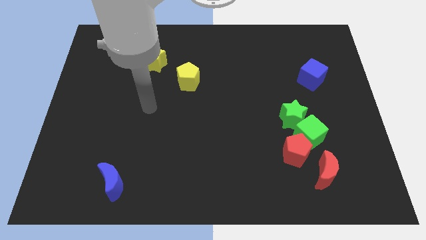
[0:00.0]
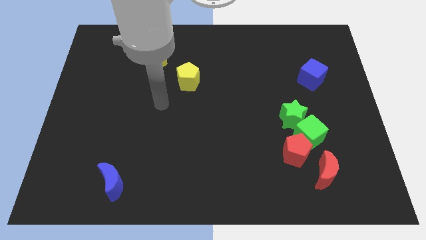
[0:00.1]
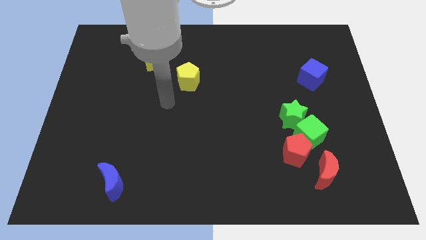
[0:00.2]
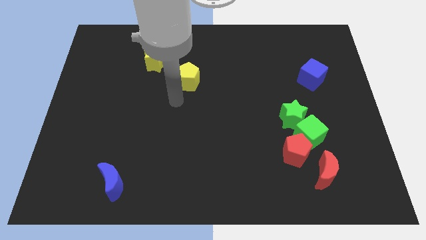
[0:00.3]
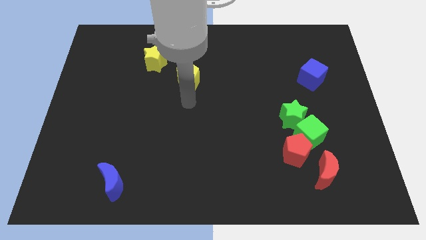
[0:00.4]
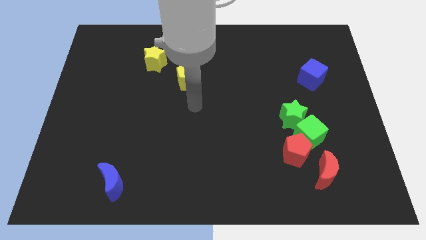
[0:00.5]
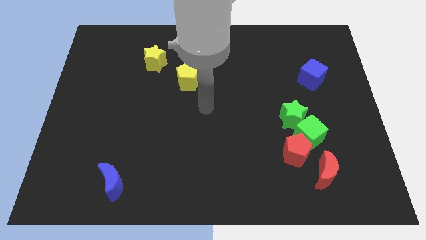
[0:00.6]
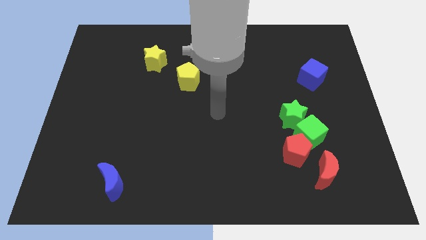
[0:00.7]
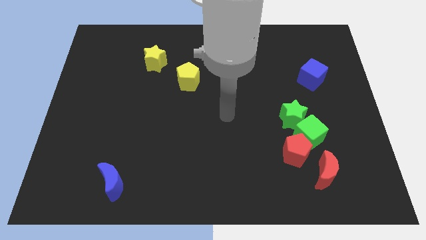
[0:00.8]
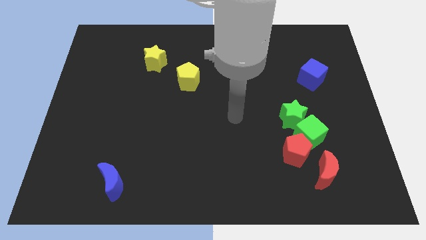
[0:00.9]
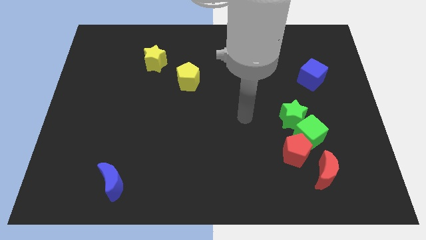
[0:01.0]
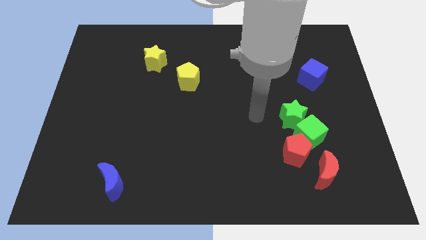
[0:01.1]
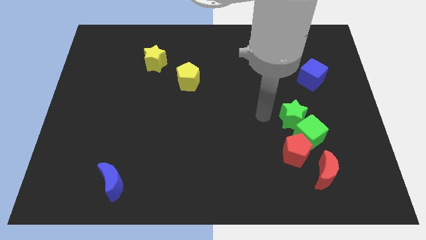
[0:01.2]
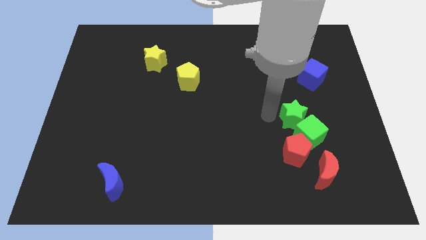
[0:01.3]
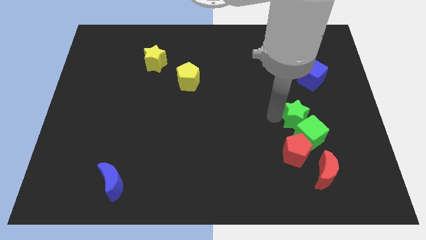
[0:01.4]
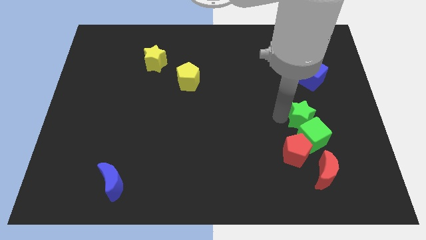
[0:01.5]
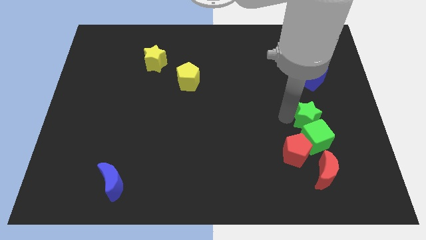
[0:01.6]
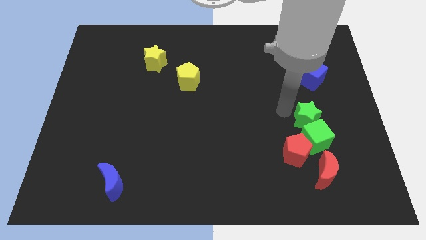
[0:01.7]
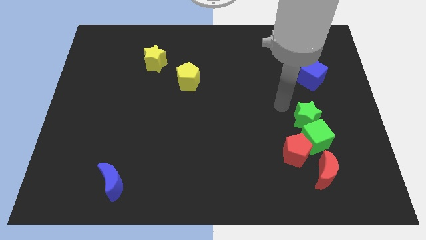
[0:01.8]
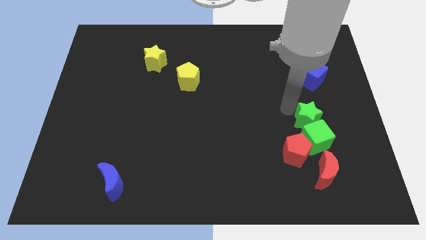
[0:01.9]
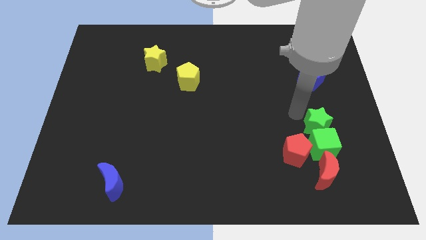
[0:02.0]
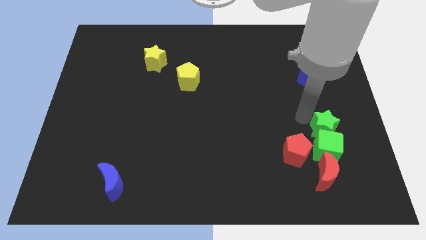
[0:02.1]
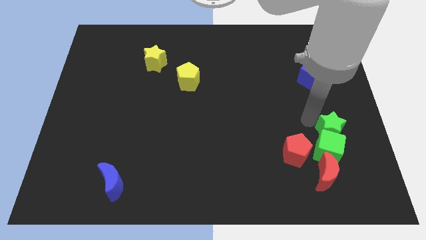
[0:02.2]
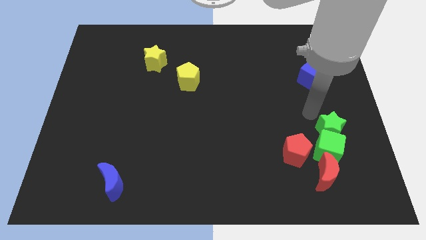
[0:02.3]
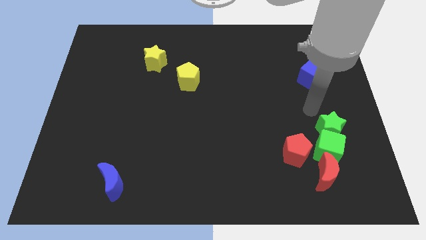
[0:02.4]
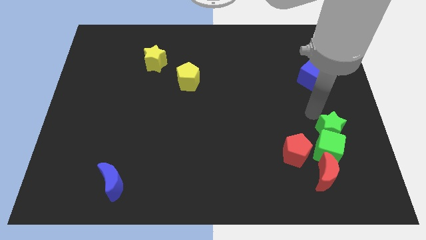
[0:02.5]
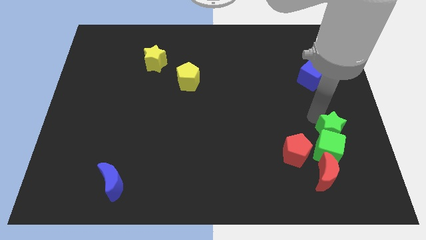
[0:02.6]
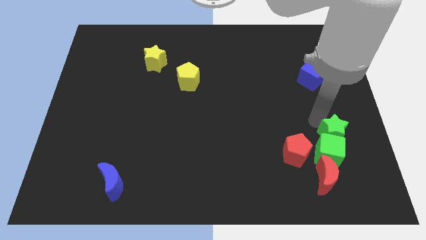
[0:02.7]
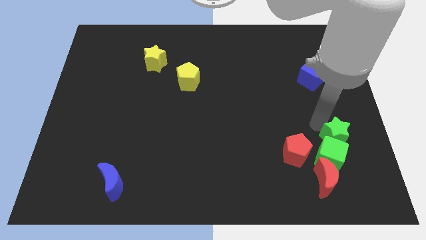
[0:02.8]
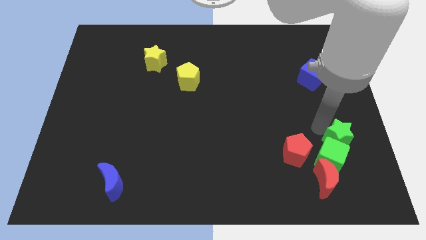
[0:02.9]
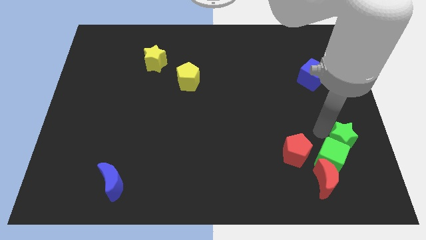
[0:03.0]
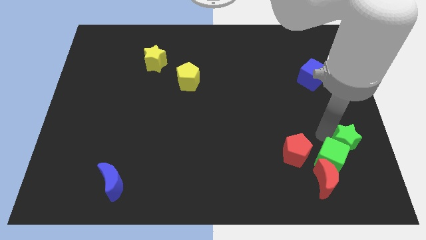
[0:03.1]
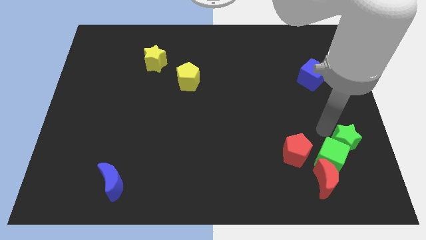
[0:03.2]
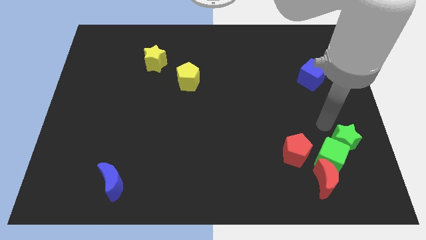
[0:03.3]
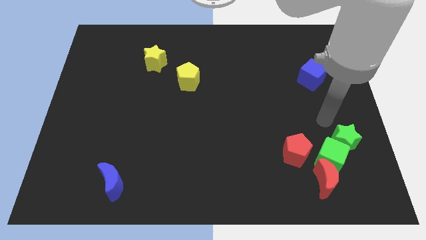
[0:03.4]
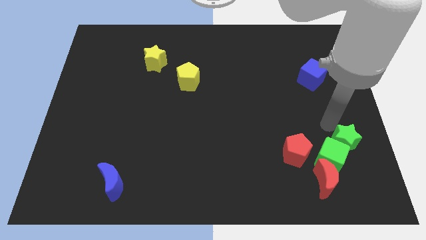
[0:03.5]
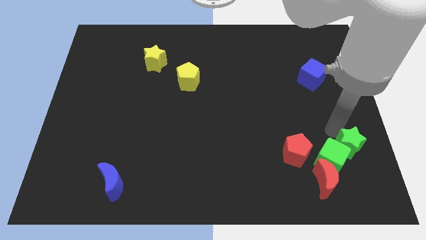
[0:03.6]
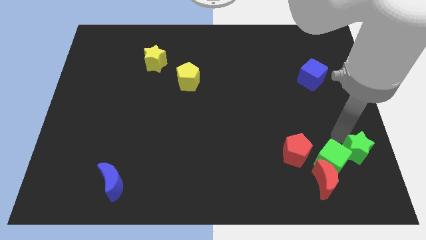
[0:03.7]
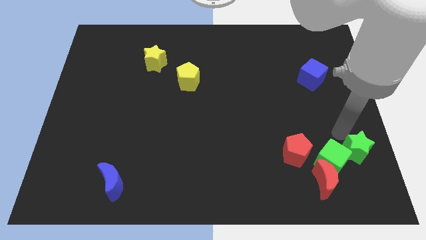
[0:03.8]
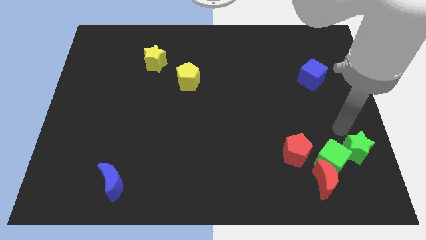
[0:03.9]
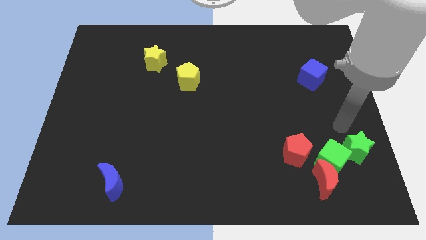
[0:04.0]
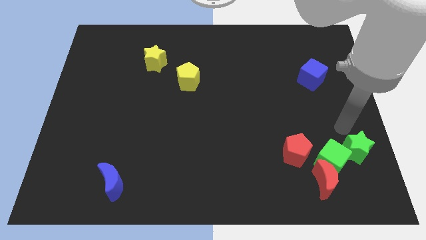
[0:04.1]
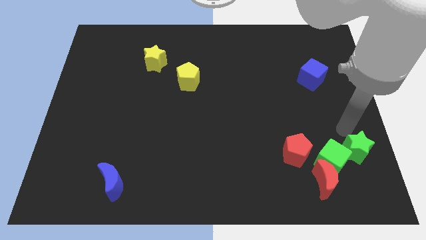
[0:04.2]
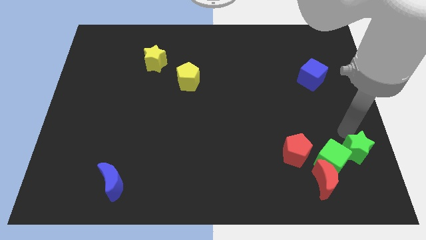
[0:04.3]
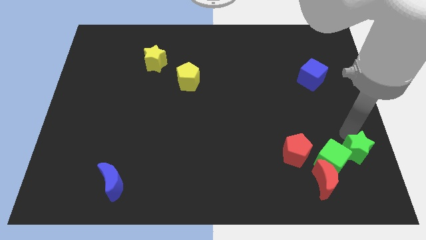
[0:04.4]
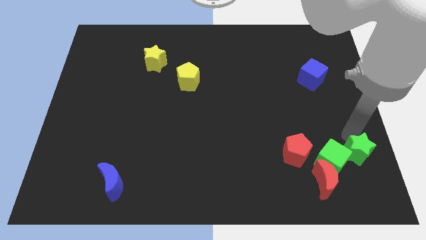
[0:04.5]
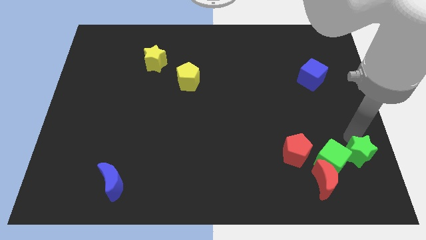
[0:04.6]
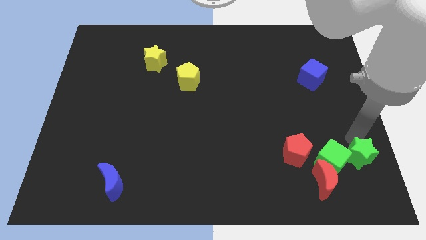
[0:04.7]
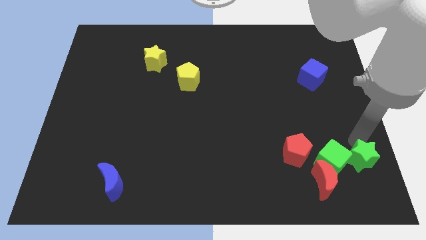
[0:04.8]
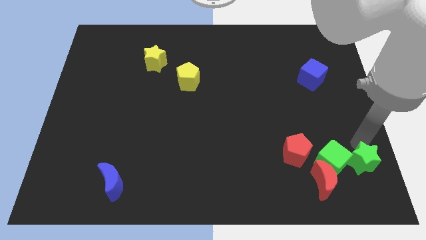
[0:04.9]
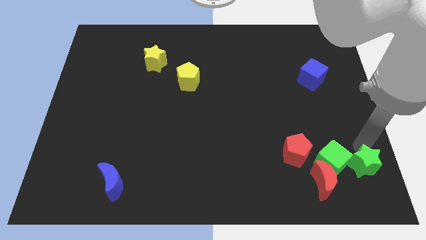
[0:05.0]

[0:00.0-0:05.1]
move the green star to the bottom right corner

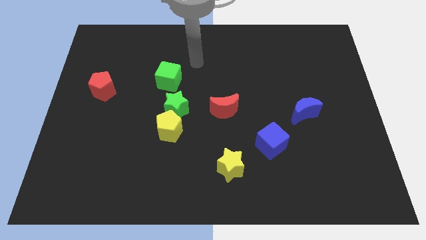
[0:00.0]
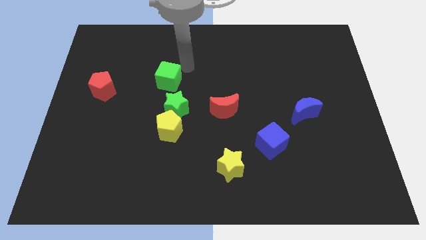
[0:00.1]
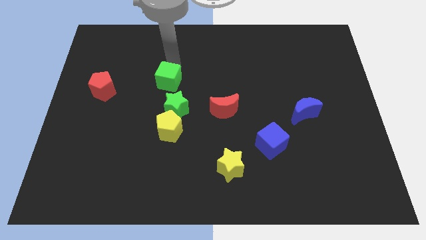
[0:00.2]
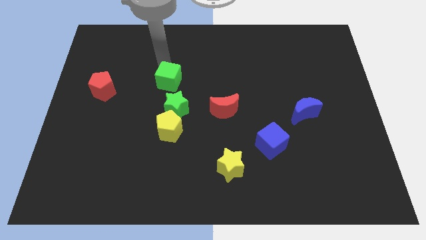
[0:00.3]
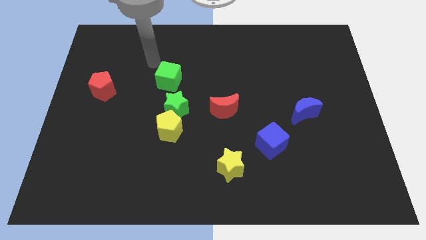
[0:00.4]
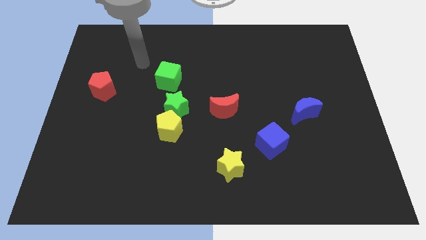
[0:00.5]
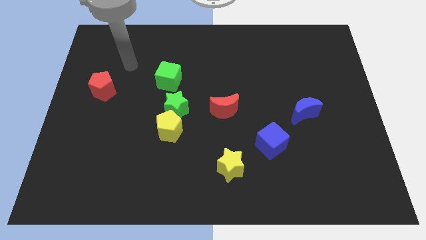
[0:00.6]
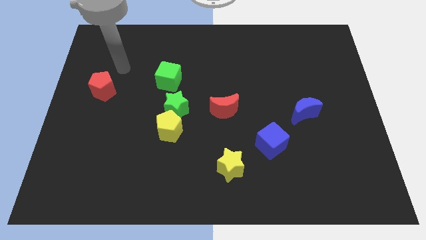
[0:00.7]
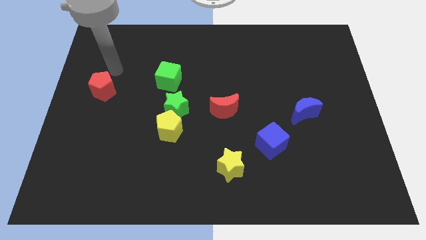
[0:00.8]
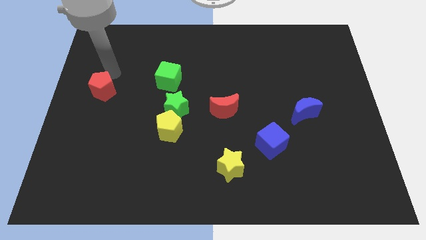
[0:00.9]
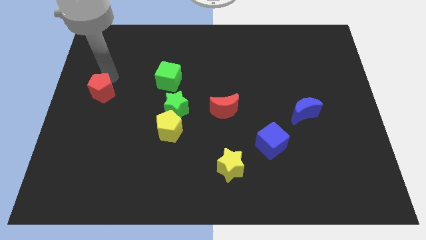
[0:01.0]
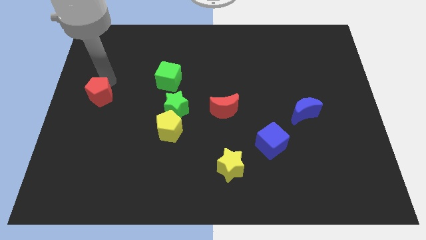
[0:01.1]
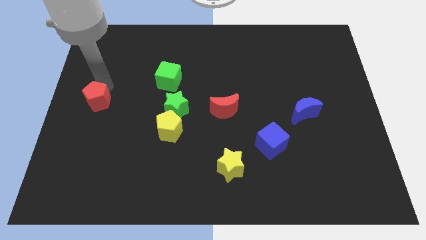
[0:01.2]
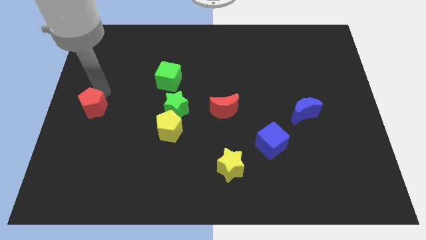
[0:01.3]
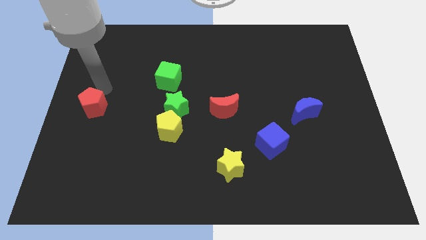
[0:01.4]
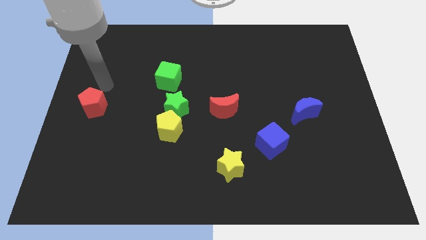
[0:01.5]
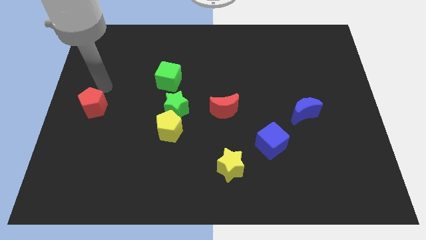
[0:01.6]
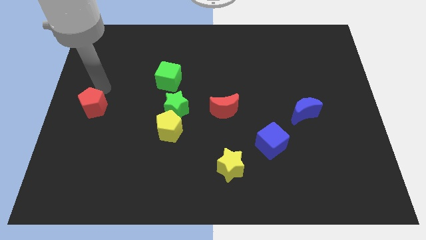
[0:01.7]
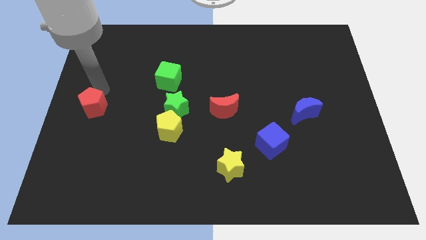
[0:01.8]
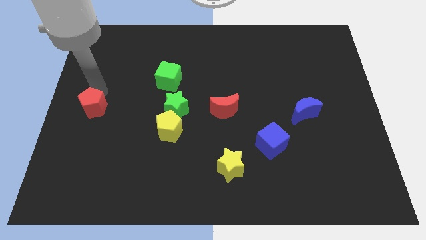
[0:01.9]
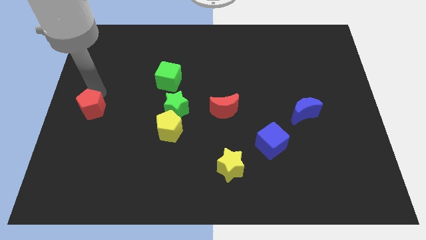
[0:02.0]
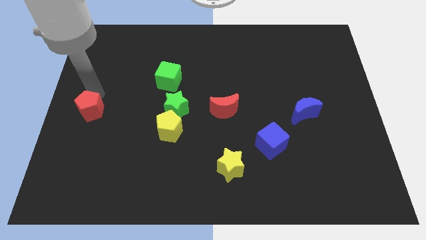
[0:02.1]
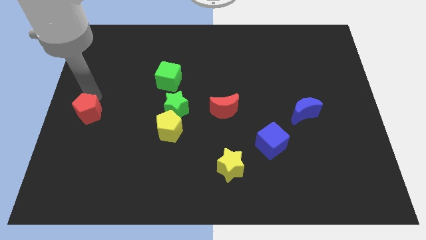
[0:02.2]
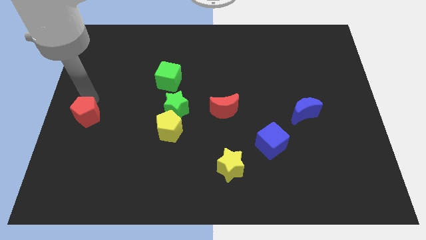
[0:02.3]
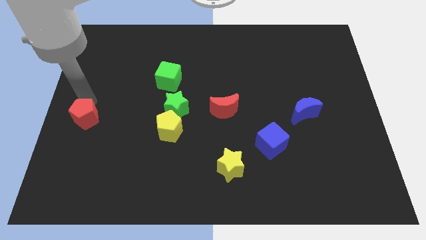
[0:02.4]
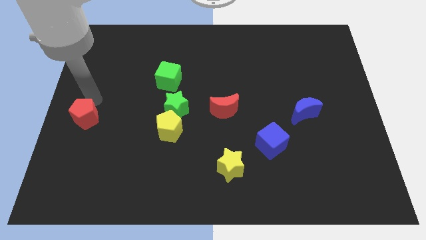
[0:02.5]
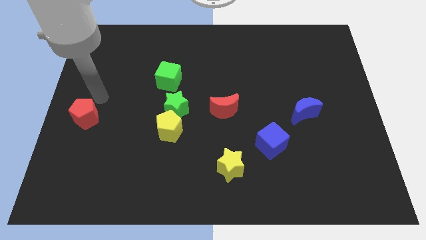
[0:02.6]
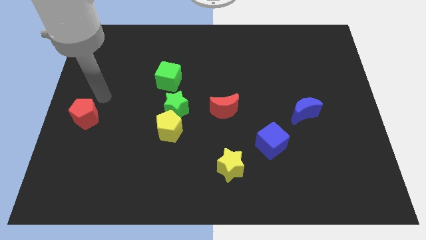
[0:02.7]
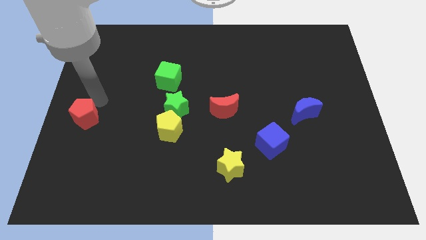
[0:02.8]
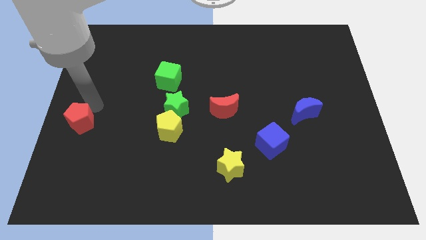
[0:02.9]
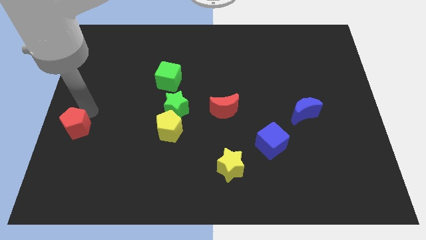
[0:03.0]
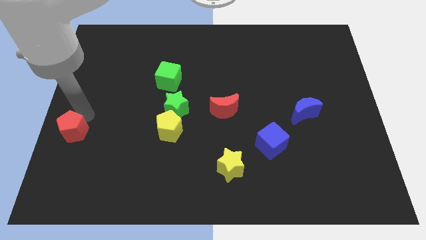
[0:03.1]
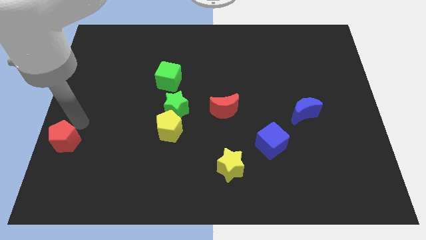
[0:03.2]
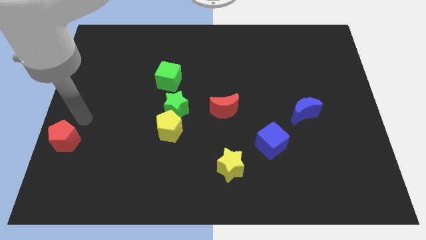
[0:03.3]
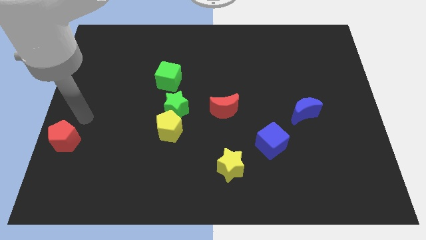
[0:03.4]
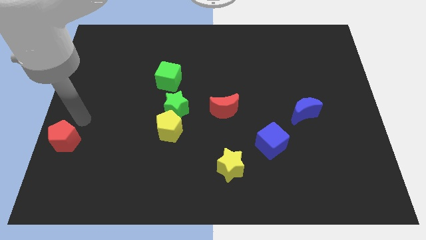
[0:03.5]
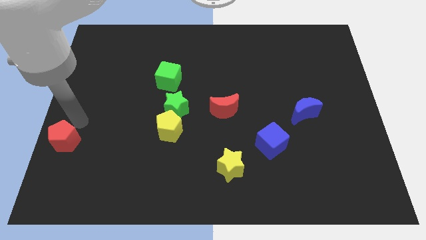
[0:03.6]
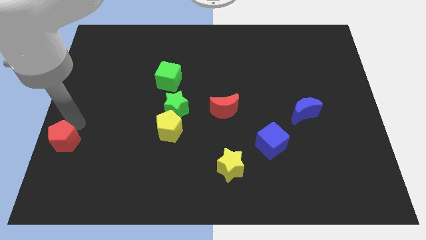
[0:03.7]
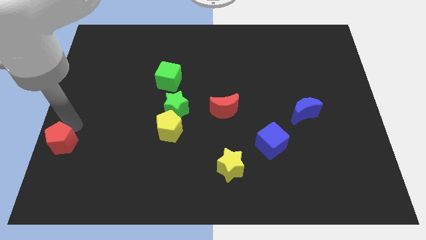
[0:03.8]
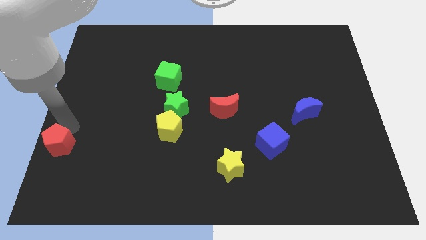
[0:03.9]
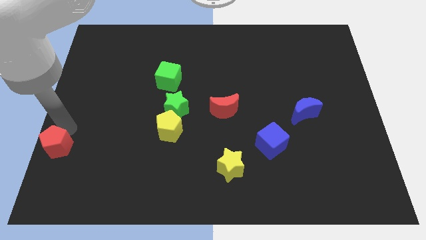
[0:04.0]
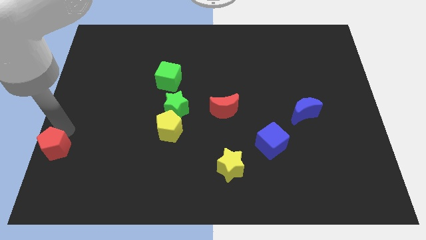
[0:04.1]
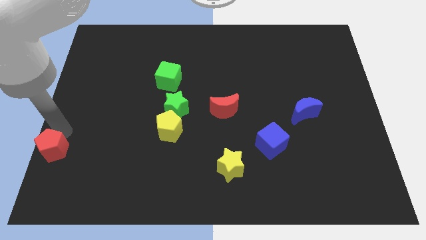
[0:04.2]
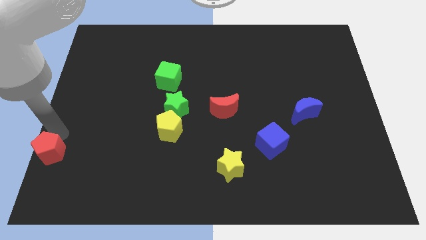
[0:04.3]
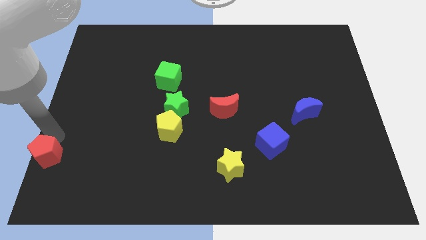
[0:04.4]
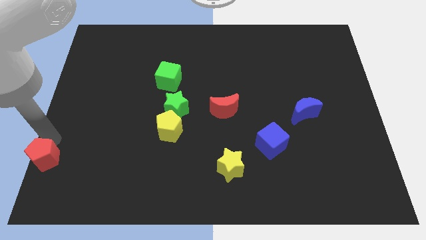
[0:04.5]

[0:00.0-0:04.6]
put the red pentagon to the bottom left of the board
